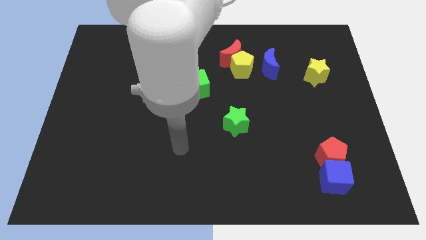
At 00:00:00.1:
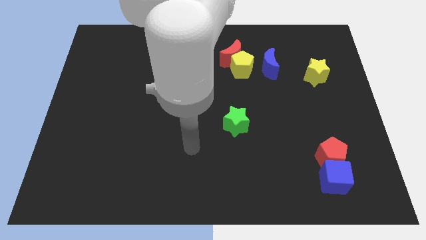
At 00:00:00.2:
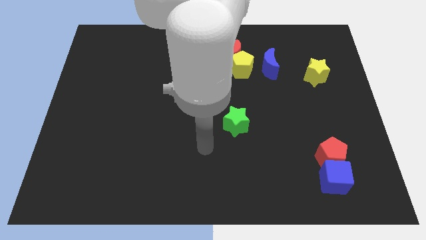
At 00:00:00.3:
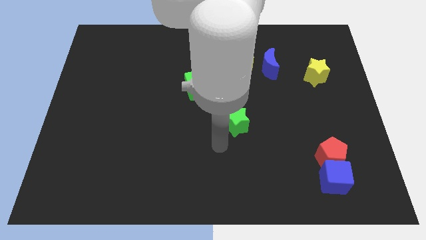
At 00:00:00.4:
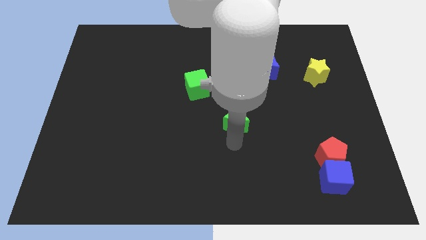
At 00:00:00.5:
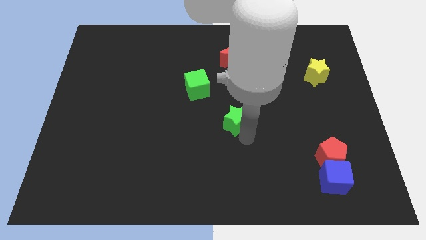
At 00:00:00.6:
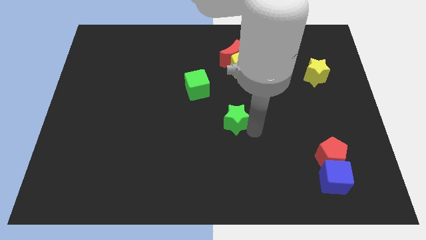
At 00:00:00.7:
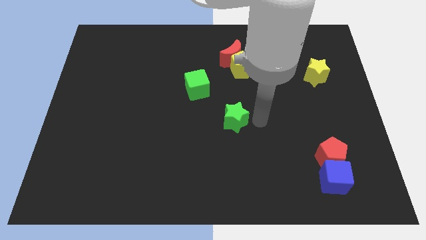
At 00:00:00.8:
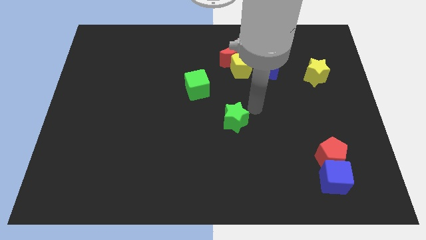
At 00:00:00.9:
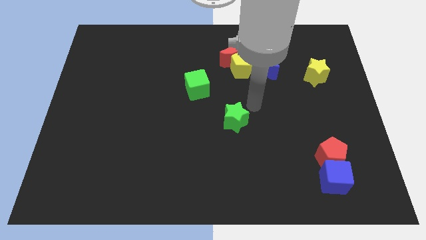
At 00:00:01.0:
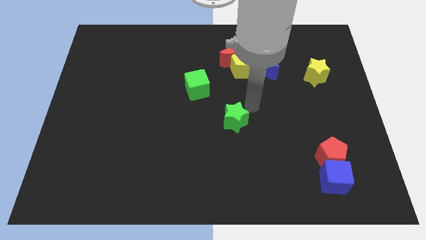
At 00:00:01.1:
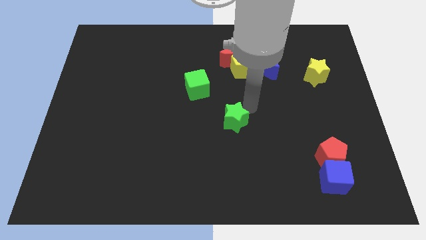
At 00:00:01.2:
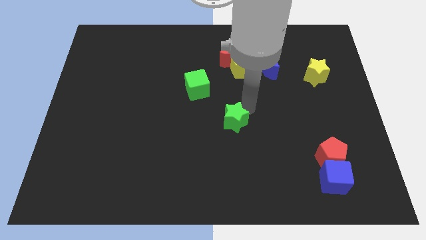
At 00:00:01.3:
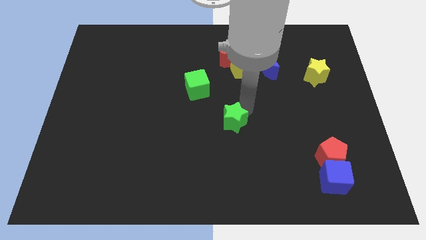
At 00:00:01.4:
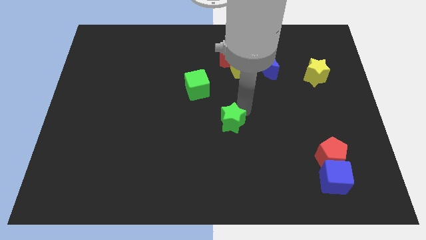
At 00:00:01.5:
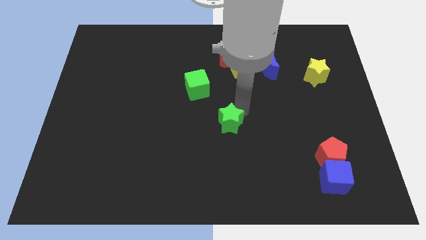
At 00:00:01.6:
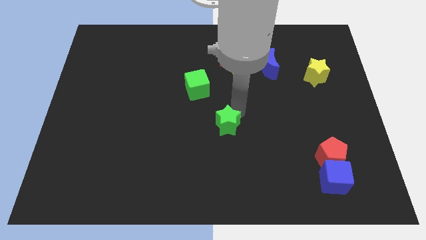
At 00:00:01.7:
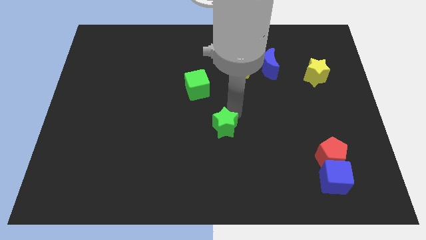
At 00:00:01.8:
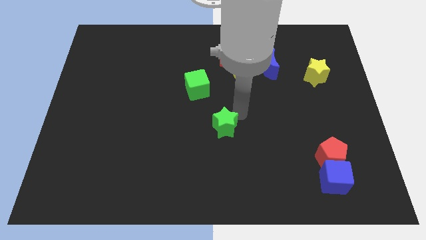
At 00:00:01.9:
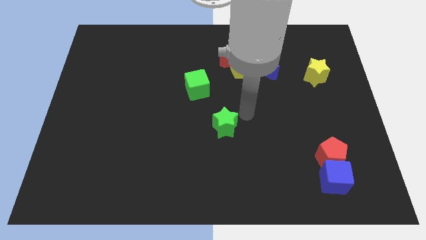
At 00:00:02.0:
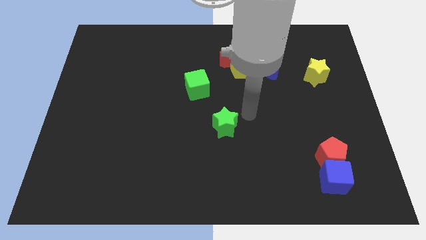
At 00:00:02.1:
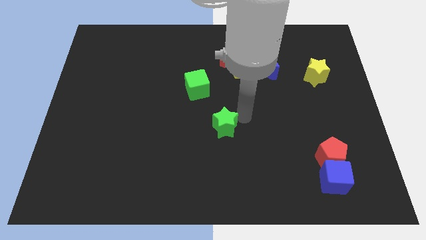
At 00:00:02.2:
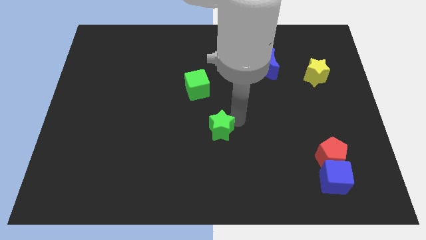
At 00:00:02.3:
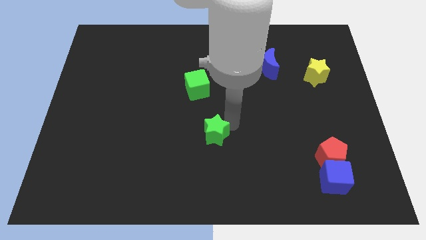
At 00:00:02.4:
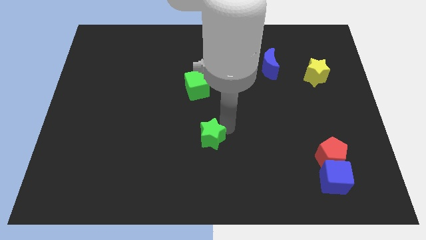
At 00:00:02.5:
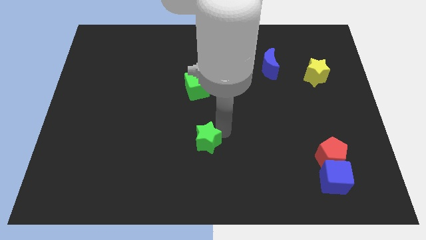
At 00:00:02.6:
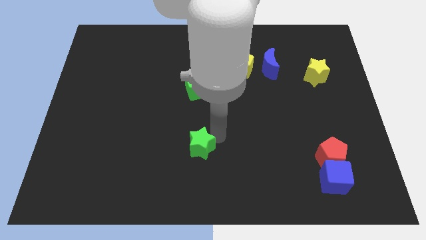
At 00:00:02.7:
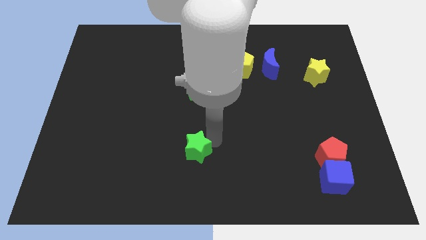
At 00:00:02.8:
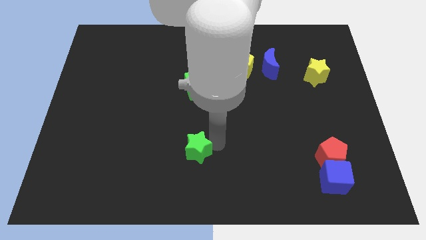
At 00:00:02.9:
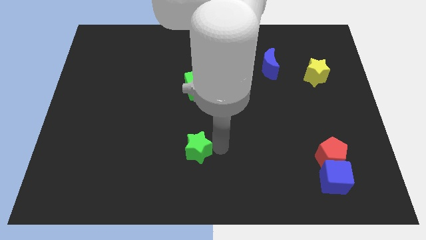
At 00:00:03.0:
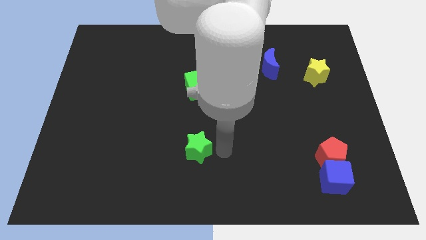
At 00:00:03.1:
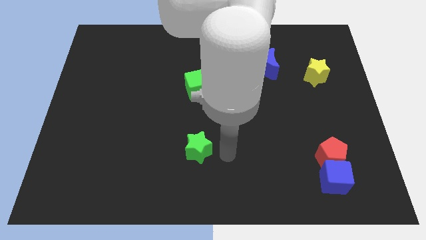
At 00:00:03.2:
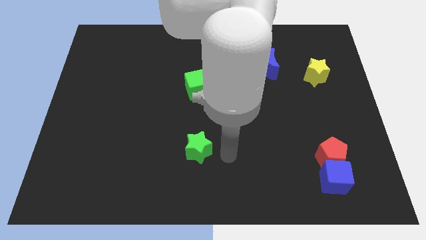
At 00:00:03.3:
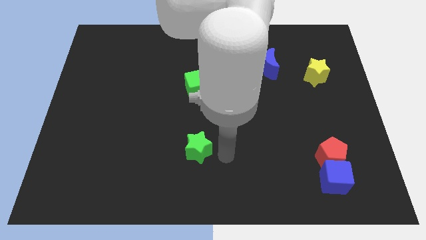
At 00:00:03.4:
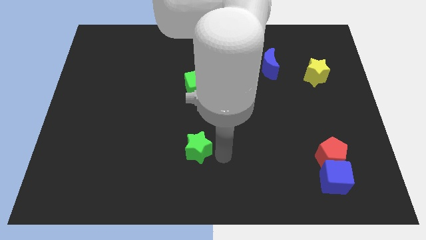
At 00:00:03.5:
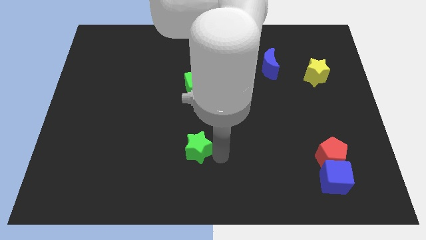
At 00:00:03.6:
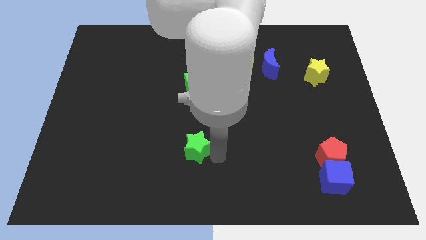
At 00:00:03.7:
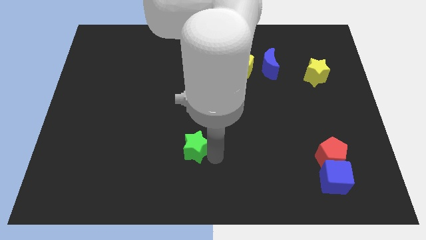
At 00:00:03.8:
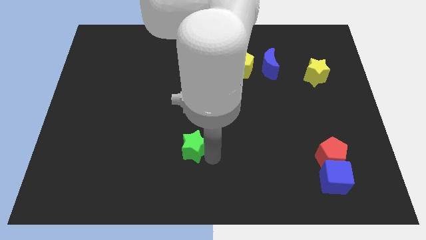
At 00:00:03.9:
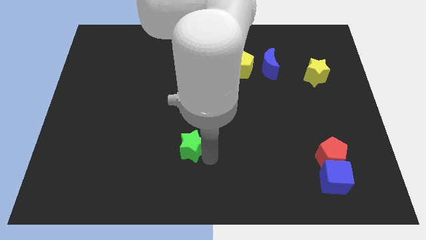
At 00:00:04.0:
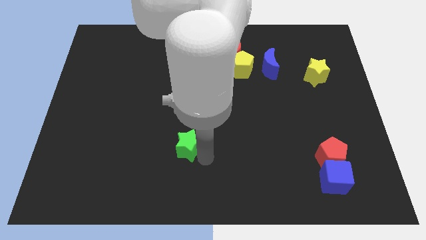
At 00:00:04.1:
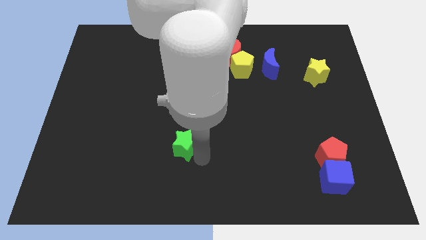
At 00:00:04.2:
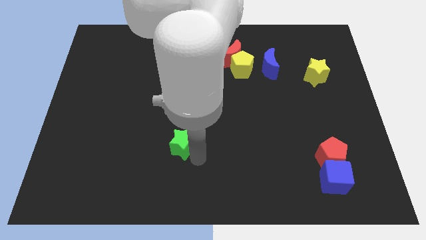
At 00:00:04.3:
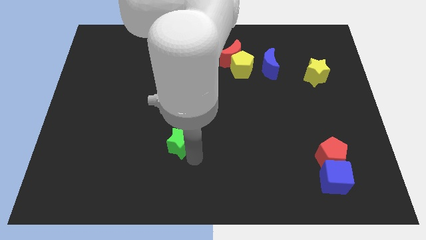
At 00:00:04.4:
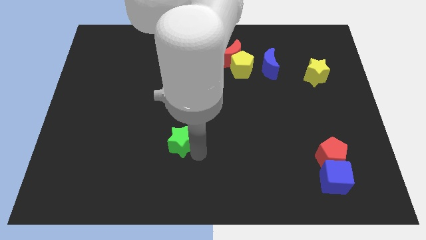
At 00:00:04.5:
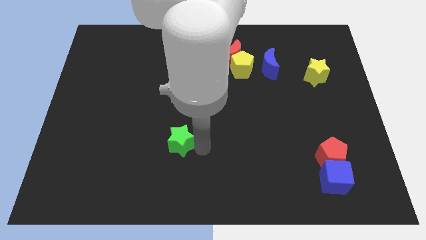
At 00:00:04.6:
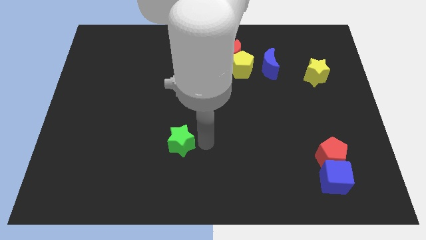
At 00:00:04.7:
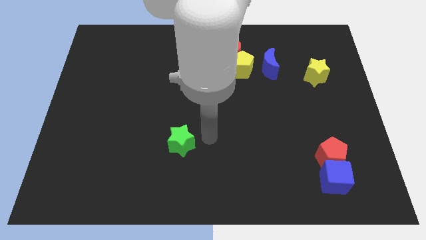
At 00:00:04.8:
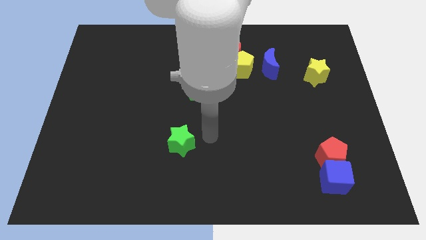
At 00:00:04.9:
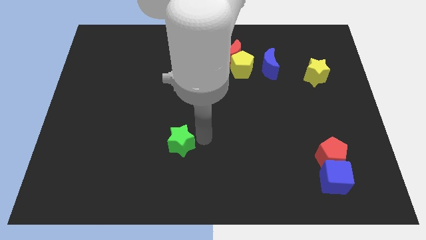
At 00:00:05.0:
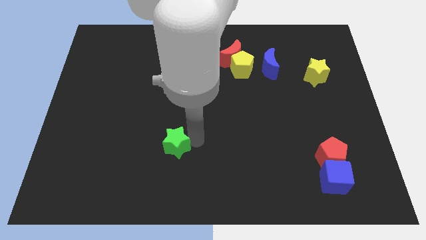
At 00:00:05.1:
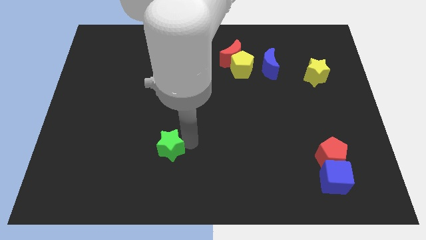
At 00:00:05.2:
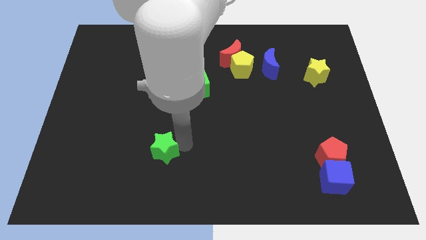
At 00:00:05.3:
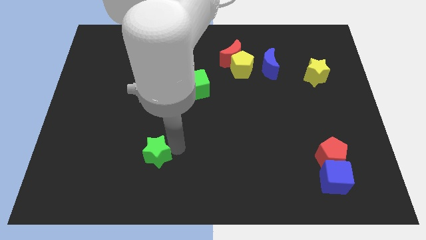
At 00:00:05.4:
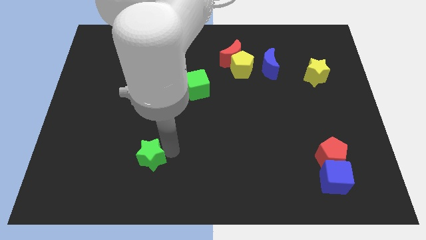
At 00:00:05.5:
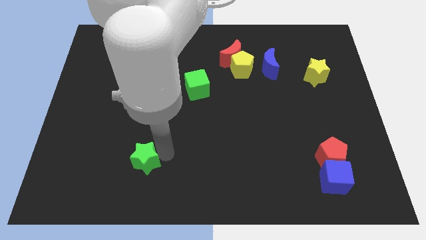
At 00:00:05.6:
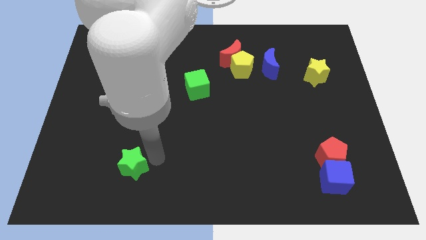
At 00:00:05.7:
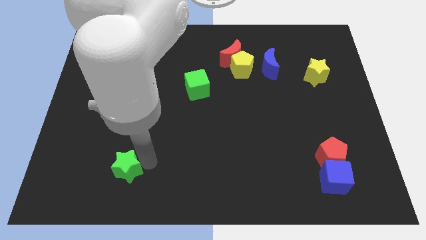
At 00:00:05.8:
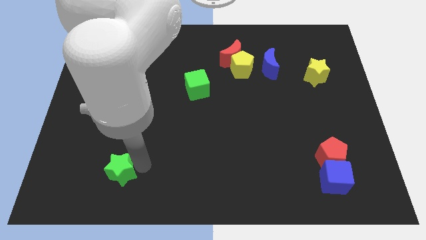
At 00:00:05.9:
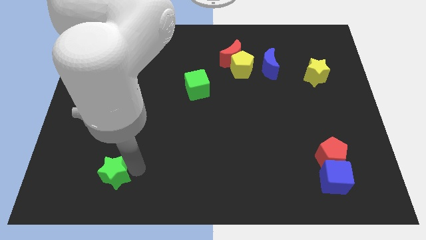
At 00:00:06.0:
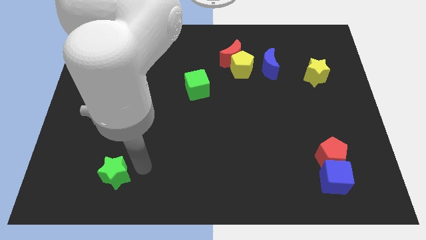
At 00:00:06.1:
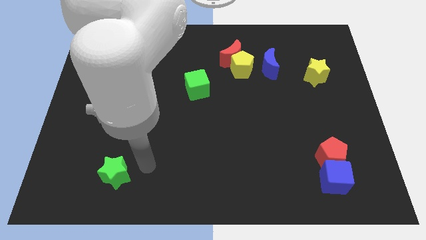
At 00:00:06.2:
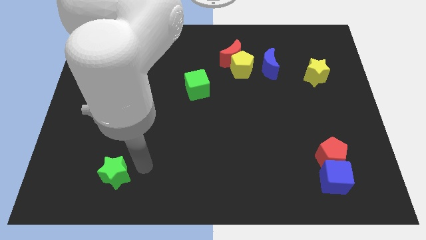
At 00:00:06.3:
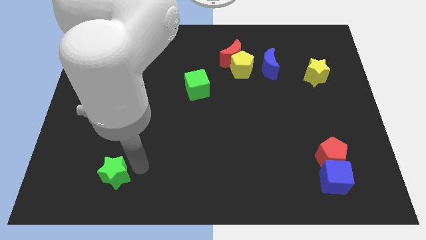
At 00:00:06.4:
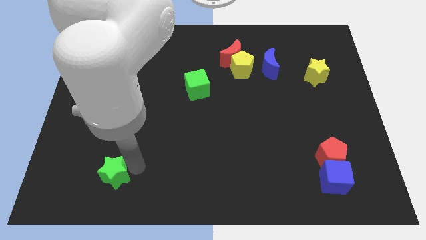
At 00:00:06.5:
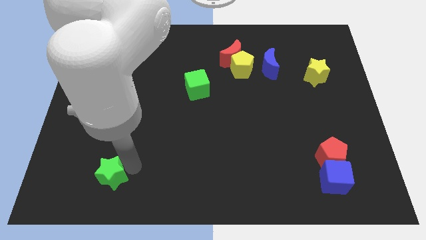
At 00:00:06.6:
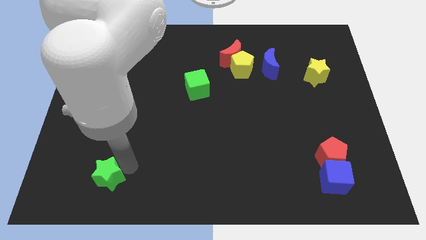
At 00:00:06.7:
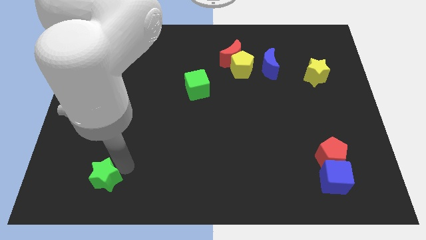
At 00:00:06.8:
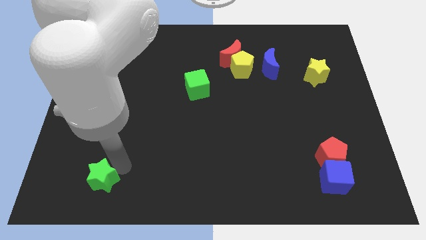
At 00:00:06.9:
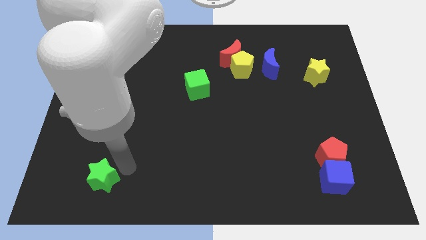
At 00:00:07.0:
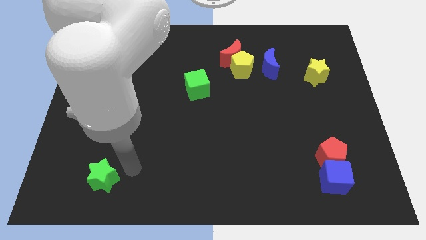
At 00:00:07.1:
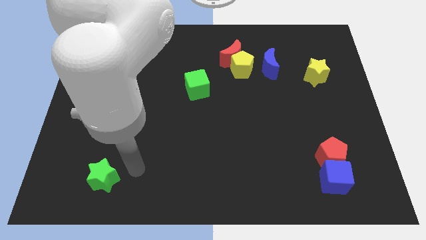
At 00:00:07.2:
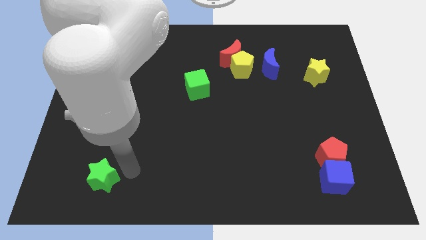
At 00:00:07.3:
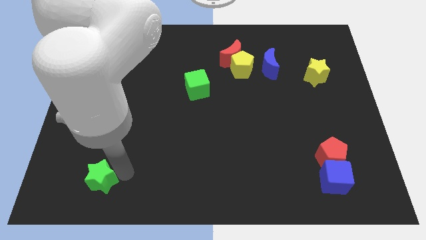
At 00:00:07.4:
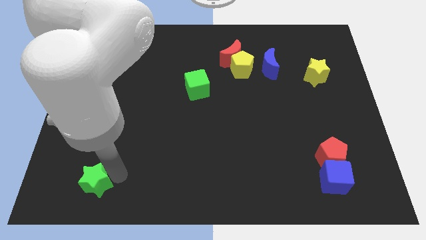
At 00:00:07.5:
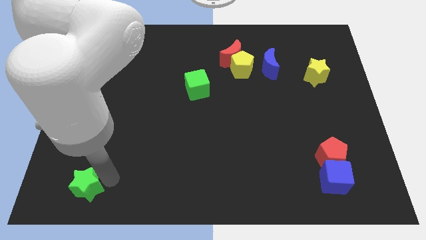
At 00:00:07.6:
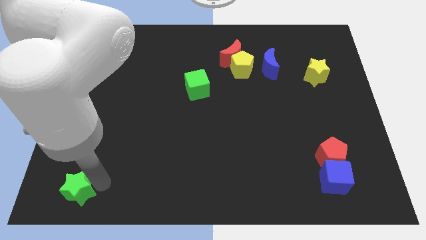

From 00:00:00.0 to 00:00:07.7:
put the green star to the bottom left corner
